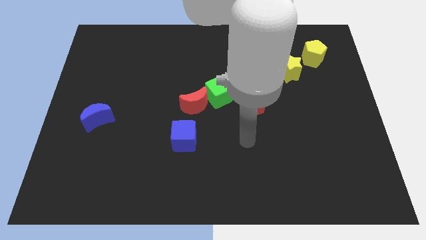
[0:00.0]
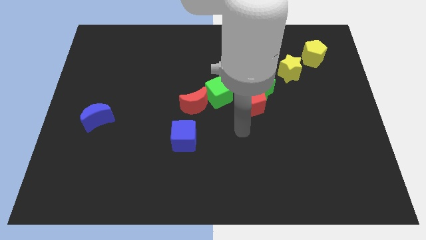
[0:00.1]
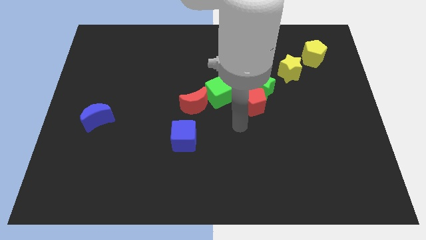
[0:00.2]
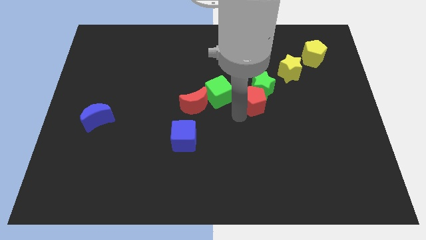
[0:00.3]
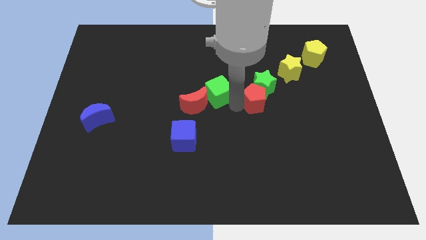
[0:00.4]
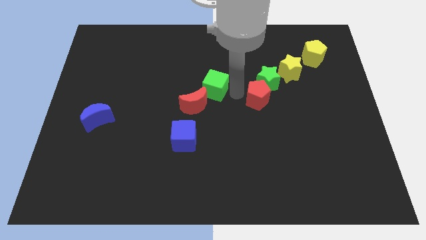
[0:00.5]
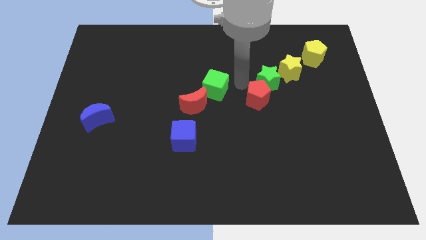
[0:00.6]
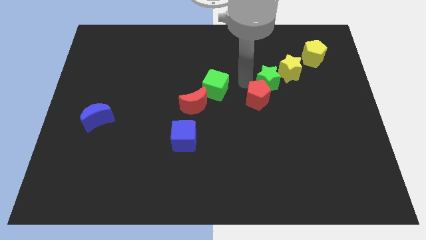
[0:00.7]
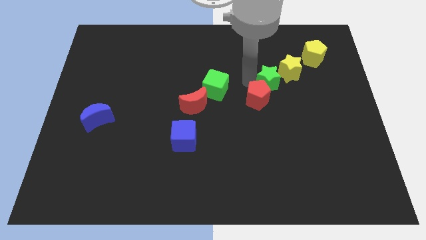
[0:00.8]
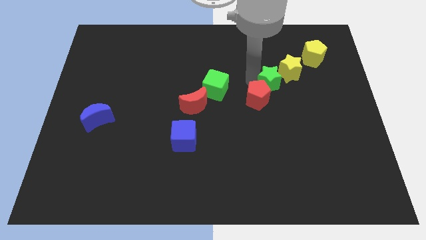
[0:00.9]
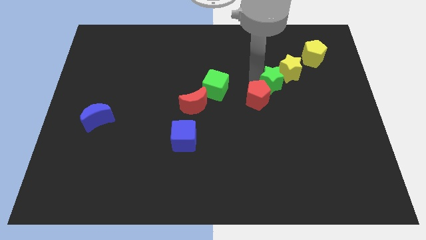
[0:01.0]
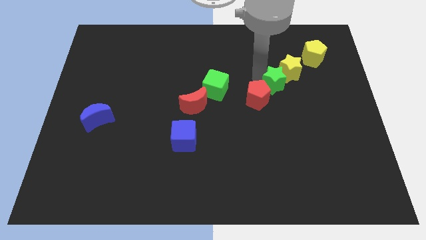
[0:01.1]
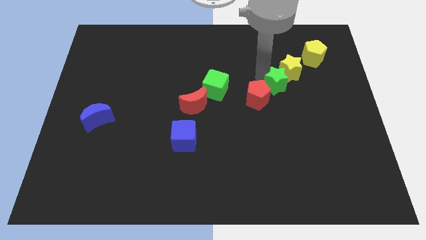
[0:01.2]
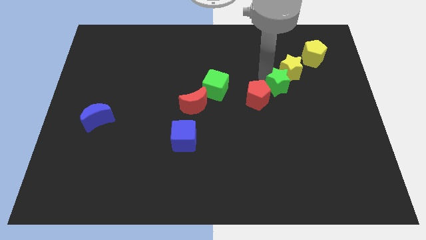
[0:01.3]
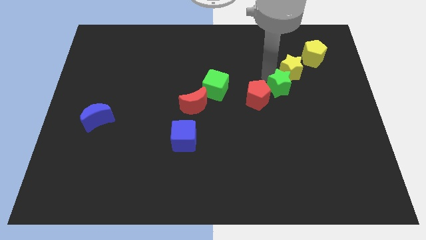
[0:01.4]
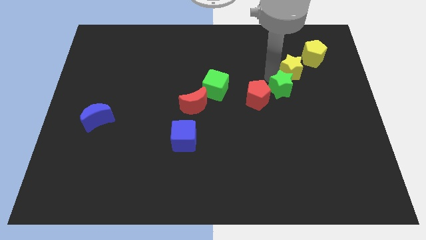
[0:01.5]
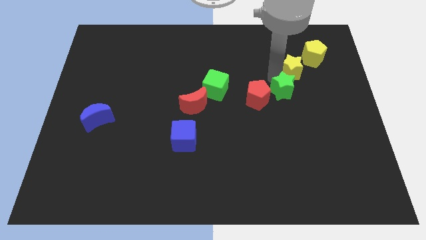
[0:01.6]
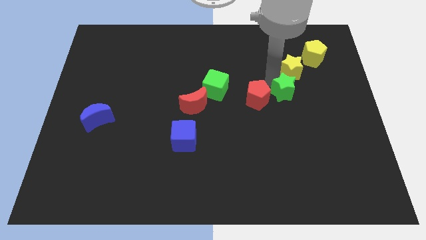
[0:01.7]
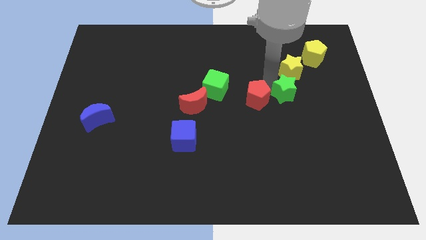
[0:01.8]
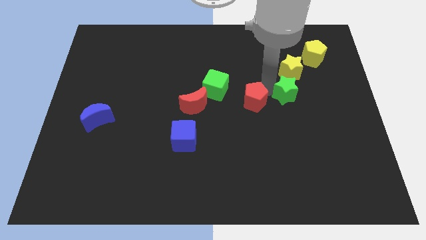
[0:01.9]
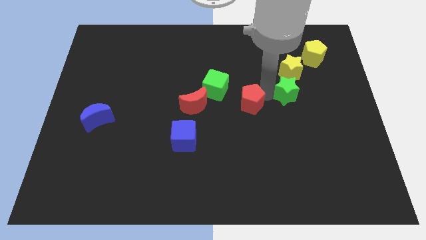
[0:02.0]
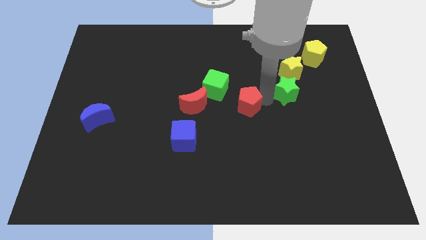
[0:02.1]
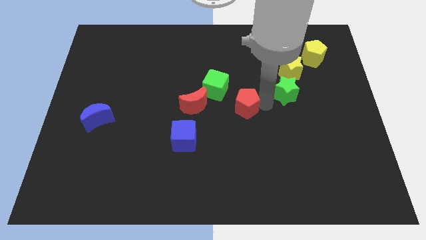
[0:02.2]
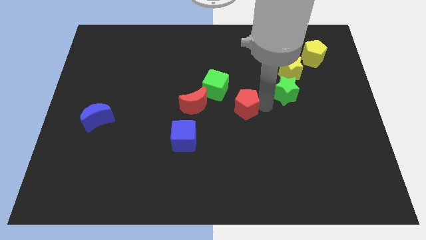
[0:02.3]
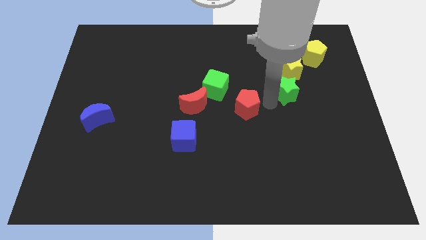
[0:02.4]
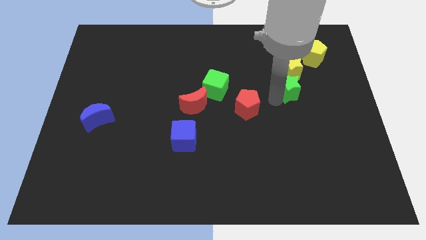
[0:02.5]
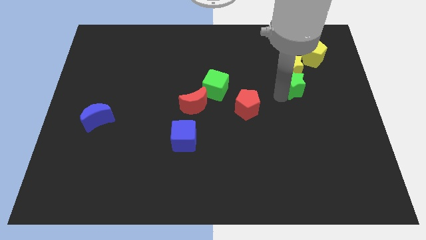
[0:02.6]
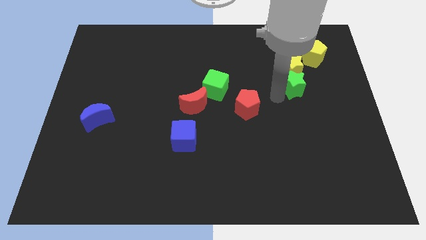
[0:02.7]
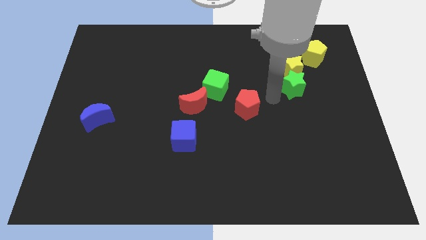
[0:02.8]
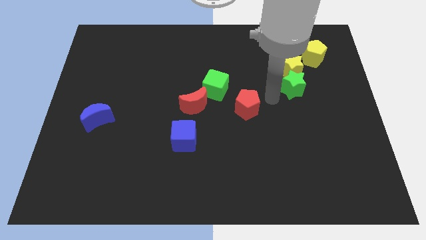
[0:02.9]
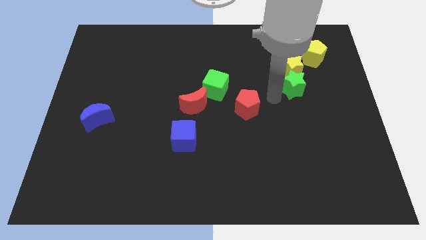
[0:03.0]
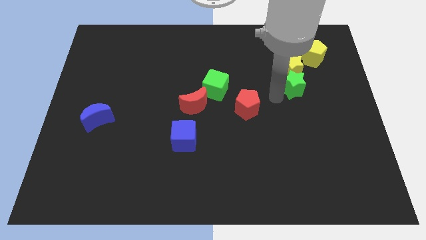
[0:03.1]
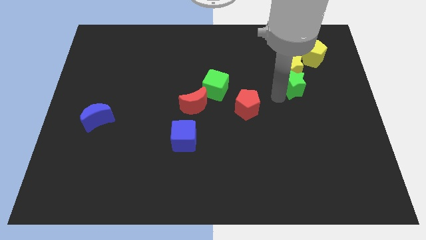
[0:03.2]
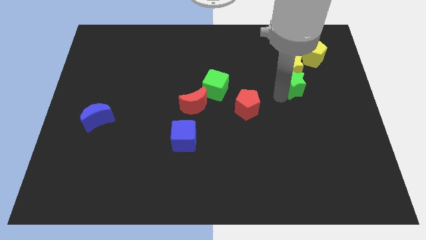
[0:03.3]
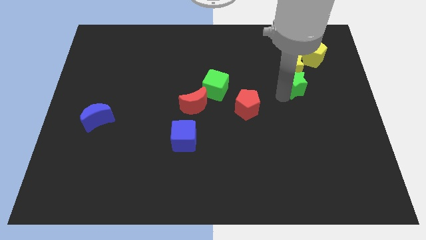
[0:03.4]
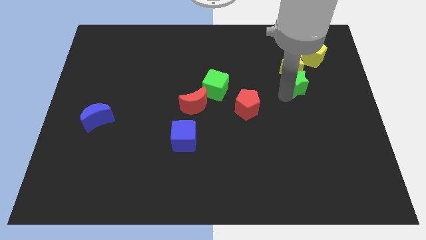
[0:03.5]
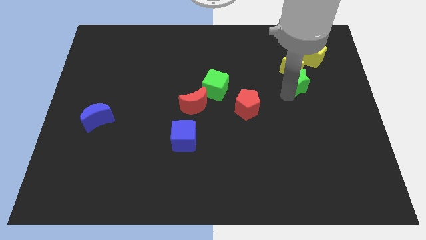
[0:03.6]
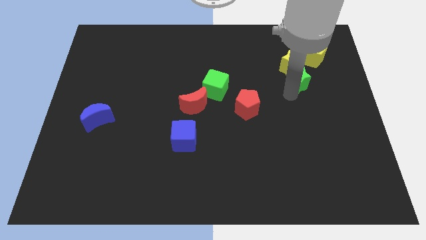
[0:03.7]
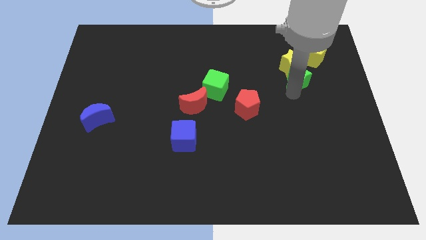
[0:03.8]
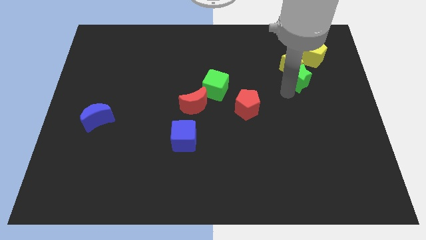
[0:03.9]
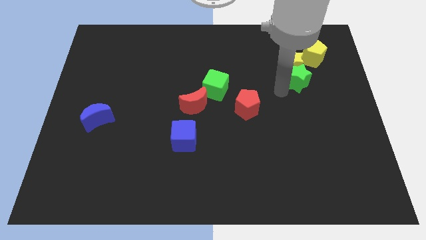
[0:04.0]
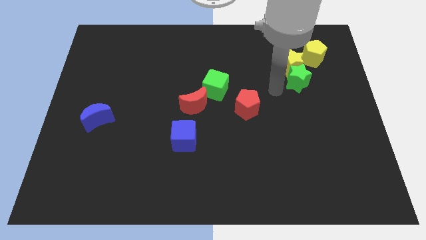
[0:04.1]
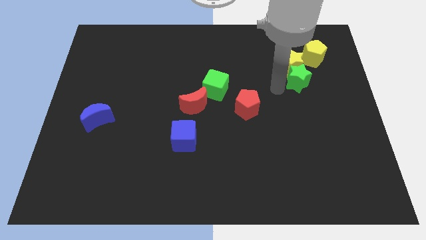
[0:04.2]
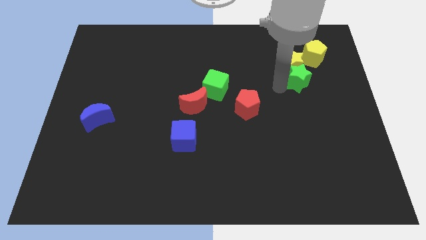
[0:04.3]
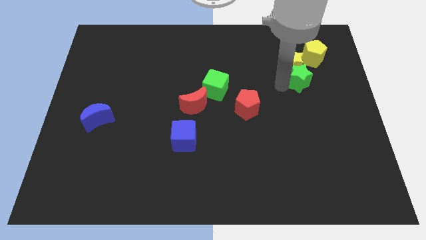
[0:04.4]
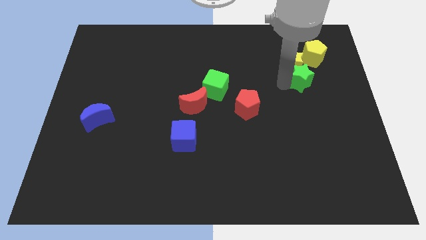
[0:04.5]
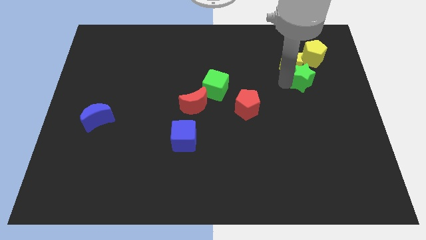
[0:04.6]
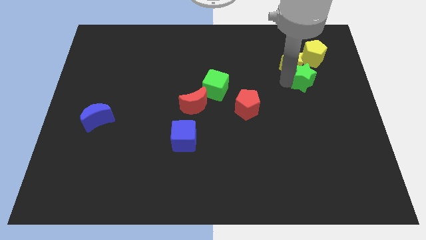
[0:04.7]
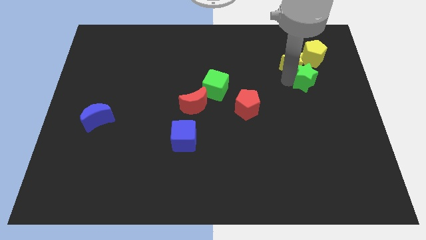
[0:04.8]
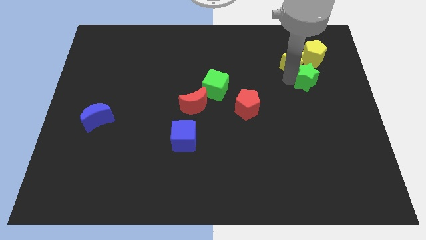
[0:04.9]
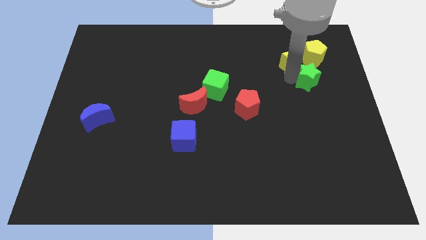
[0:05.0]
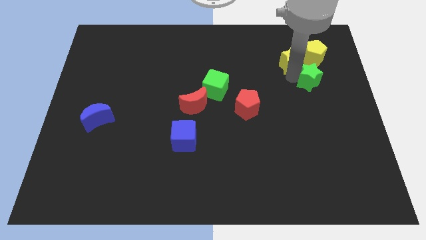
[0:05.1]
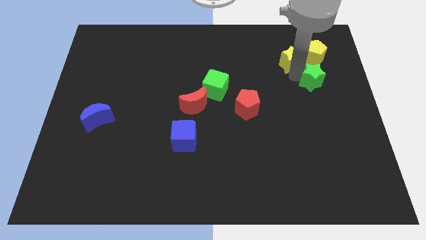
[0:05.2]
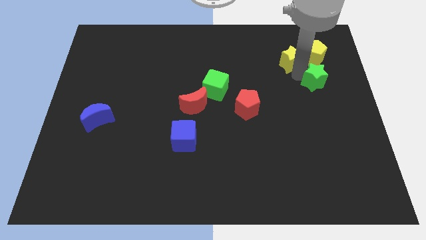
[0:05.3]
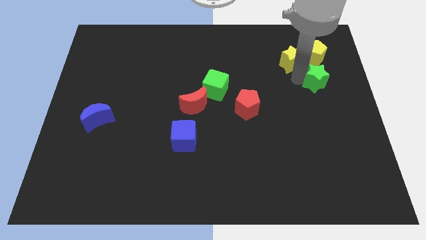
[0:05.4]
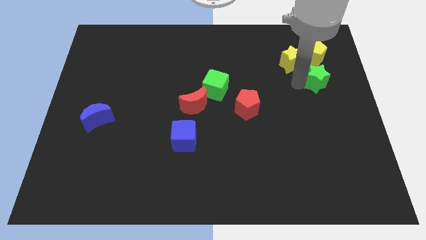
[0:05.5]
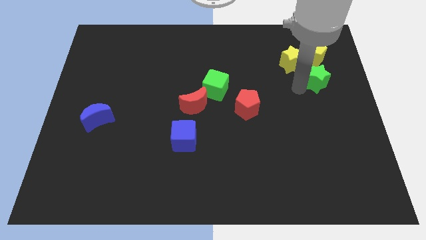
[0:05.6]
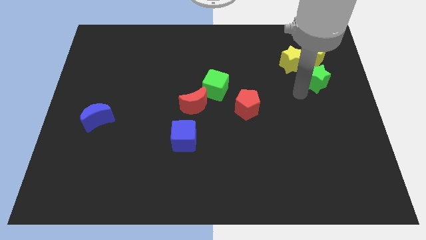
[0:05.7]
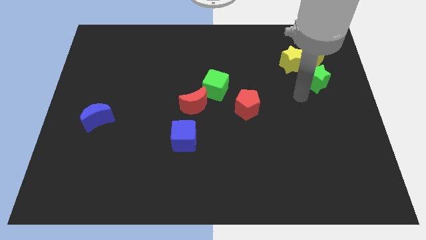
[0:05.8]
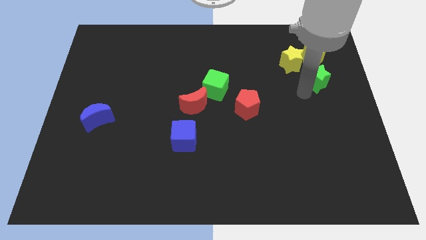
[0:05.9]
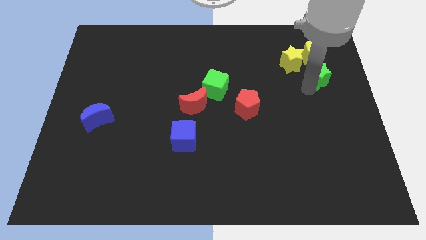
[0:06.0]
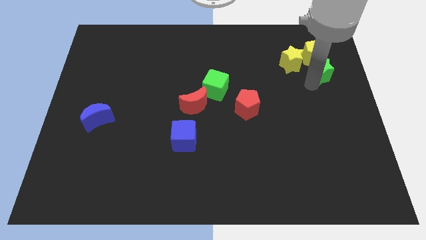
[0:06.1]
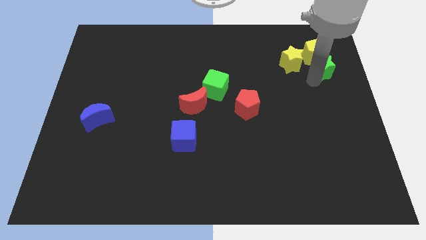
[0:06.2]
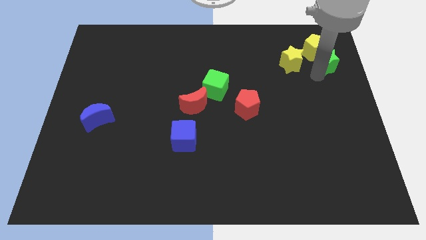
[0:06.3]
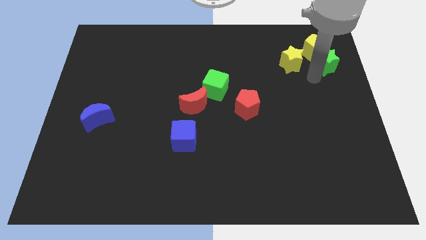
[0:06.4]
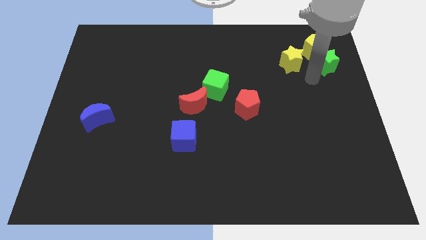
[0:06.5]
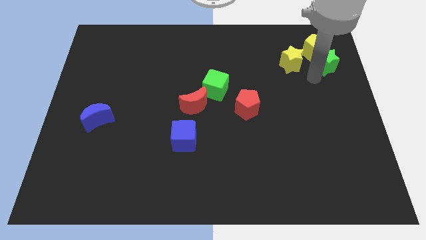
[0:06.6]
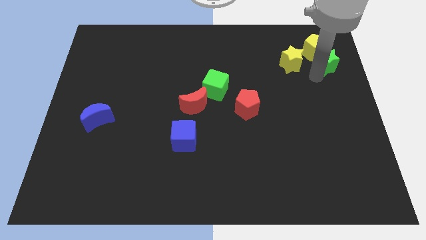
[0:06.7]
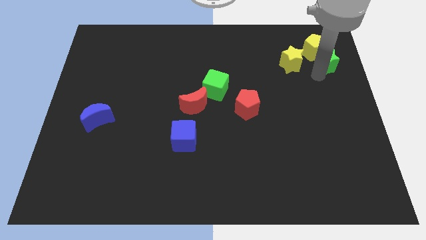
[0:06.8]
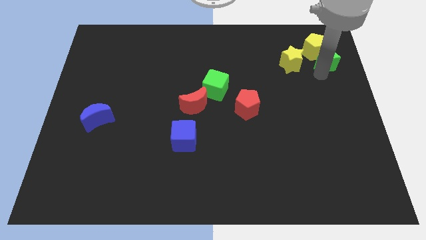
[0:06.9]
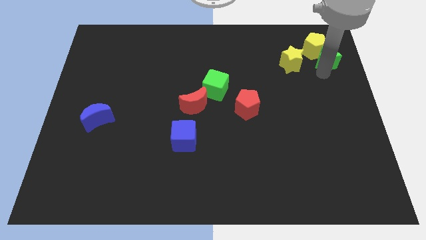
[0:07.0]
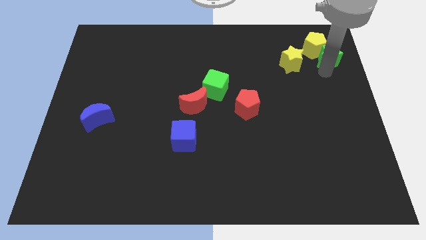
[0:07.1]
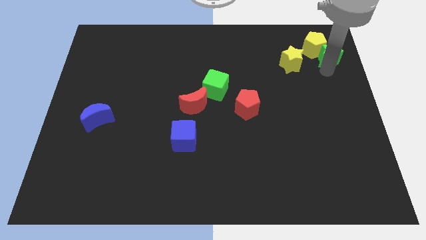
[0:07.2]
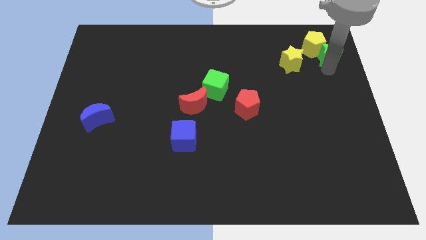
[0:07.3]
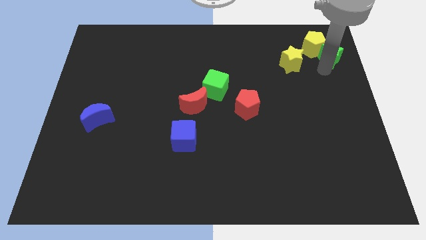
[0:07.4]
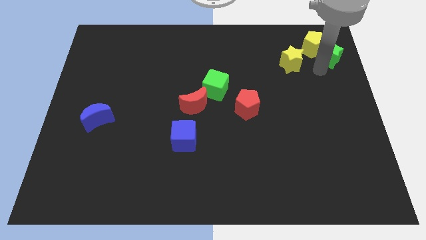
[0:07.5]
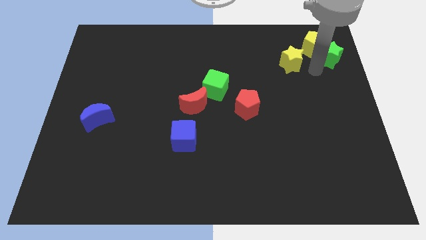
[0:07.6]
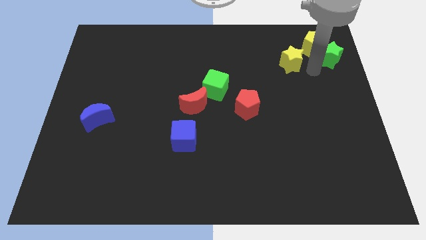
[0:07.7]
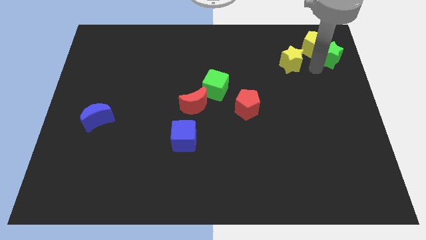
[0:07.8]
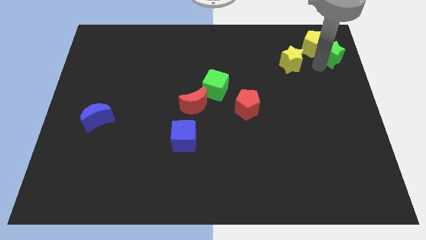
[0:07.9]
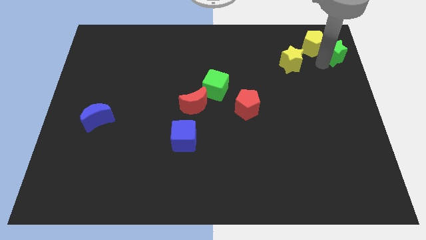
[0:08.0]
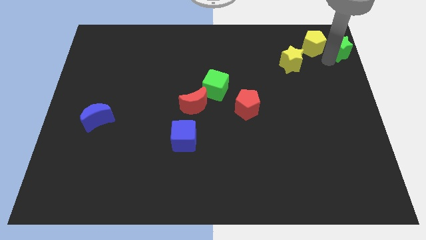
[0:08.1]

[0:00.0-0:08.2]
move the green star to the top right
